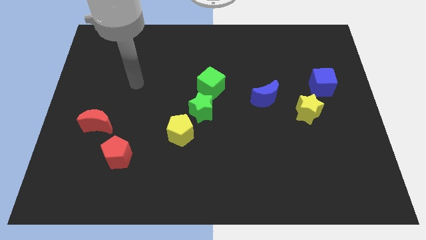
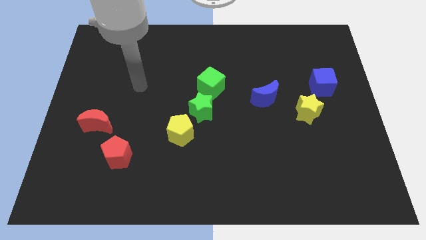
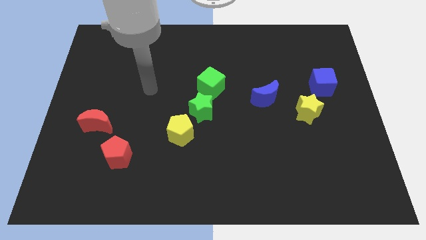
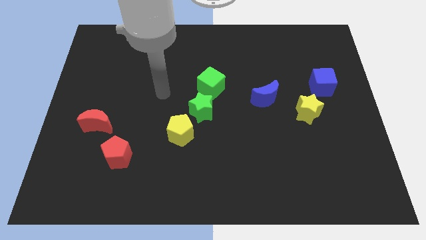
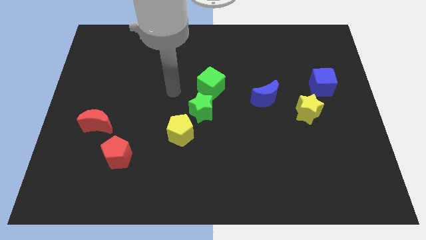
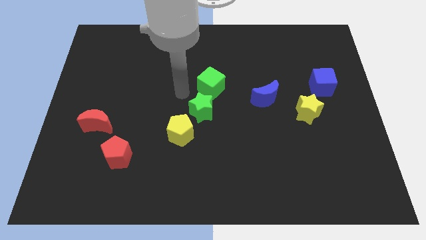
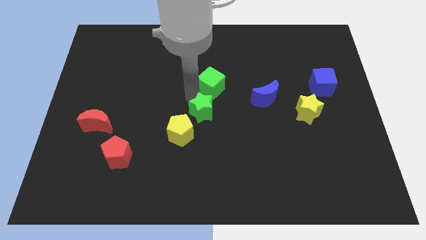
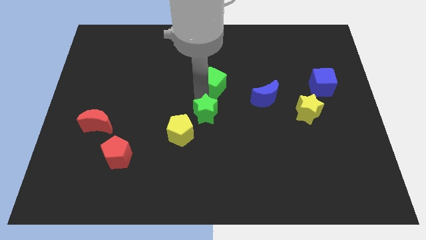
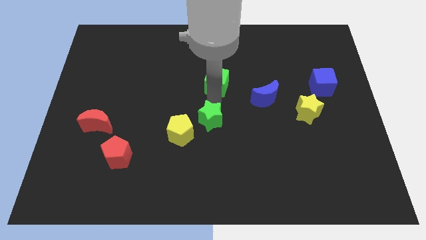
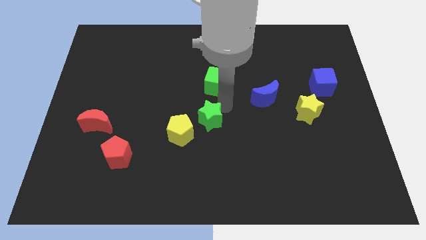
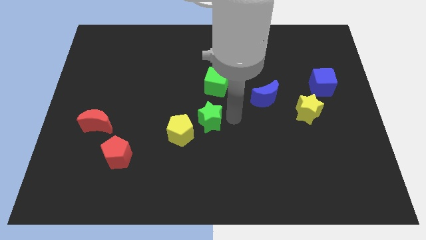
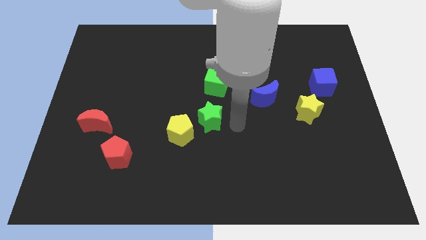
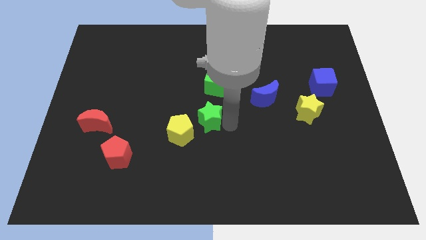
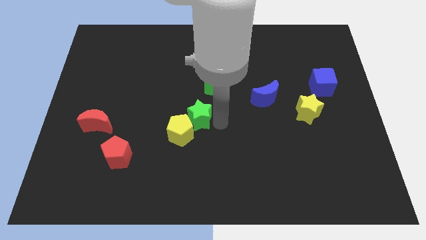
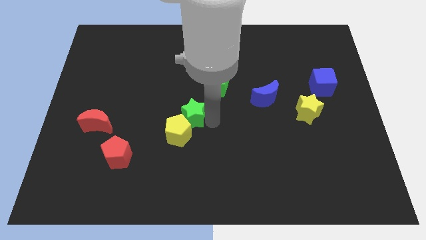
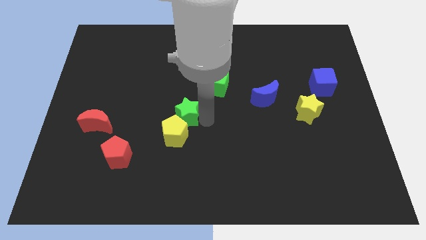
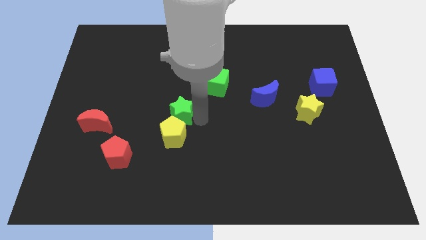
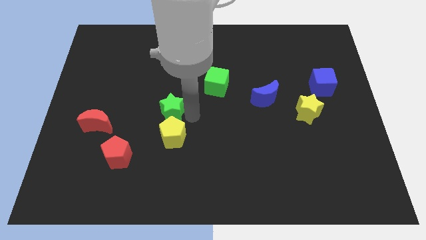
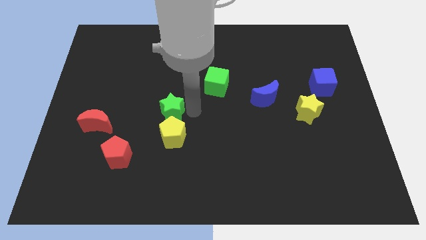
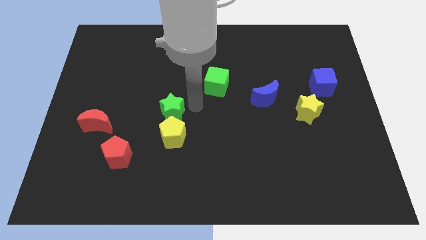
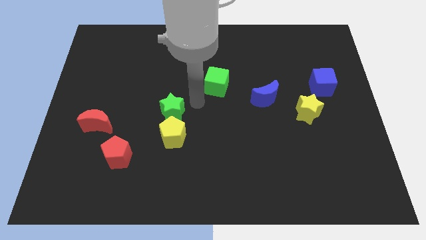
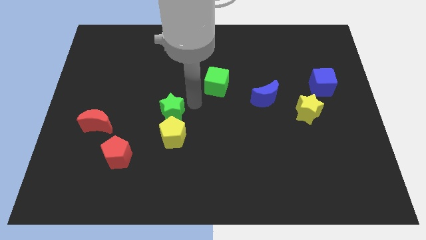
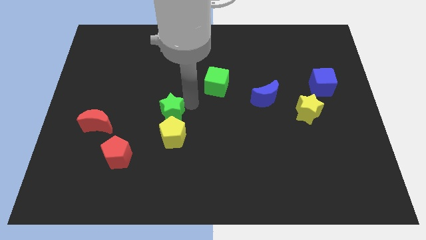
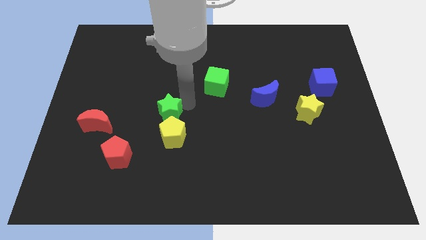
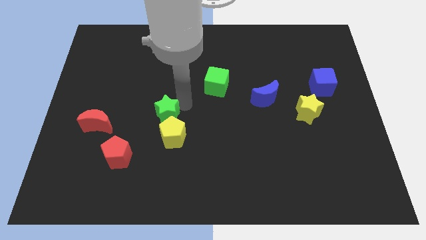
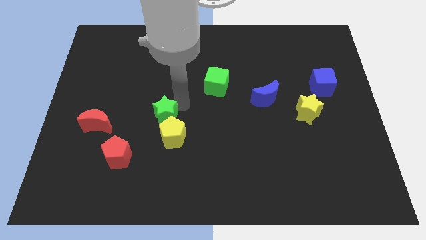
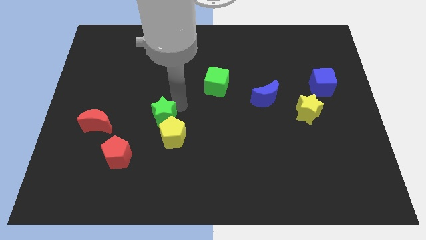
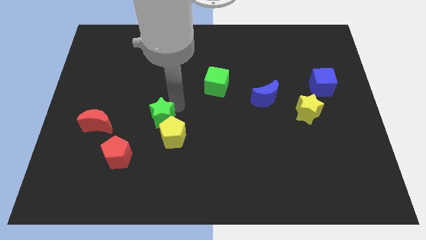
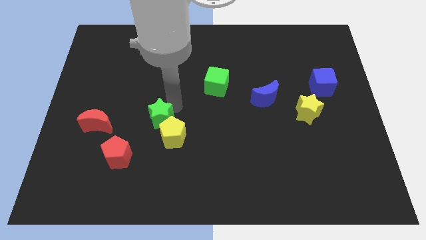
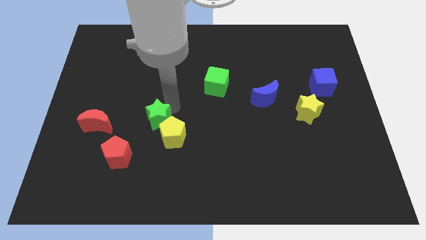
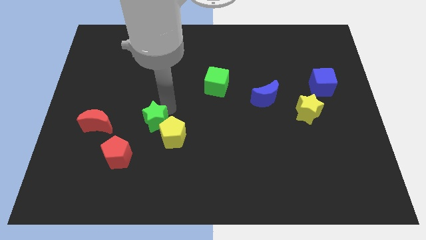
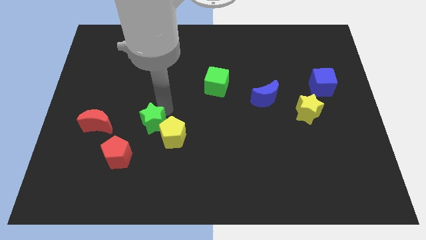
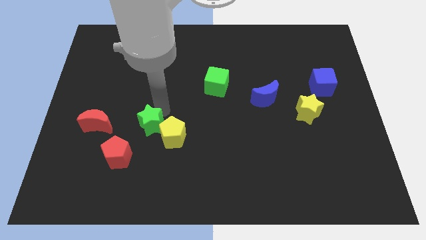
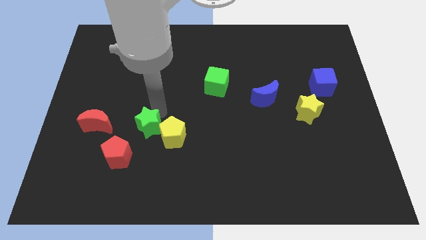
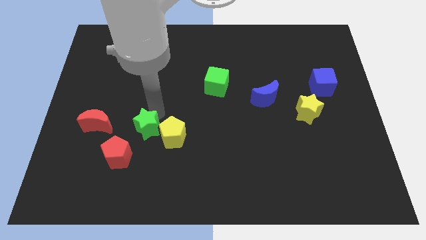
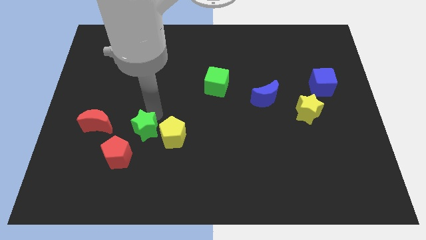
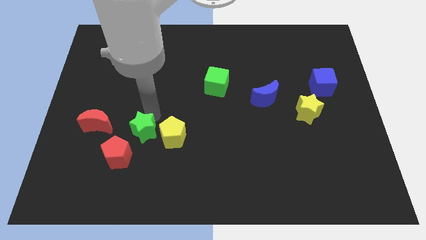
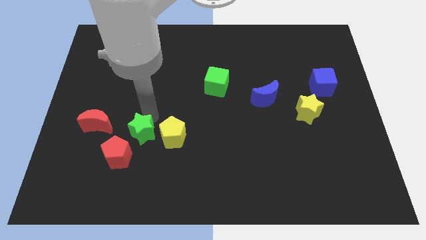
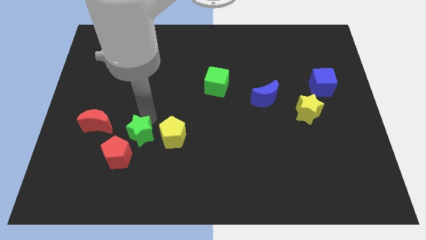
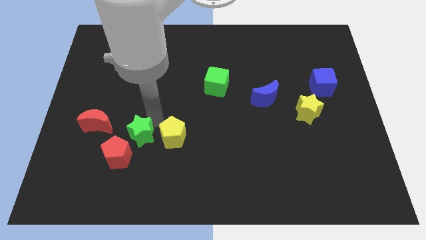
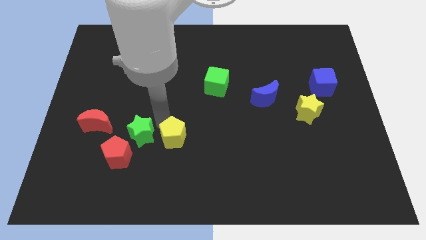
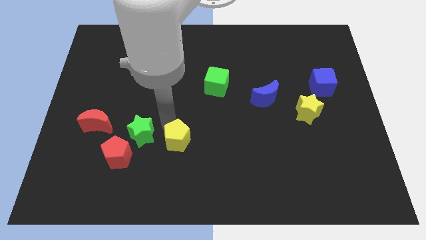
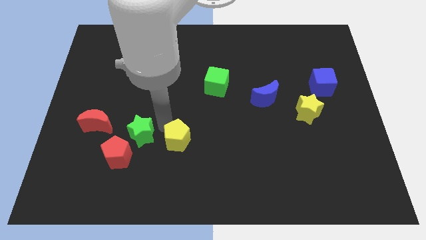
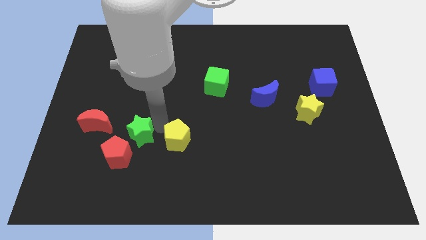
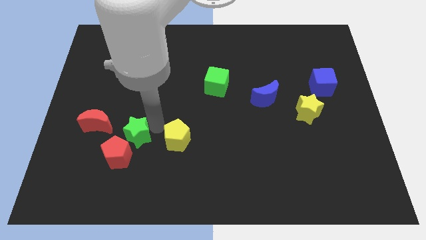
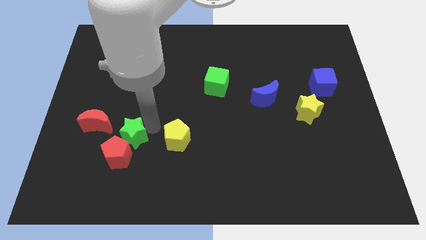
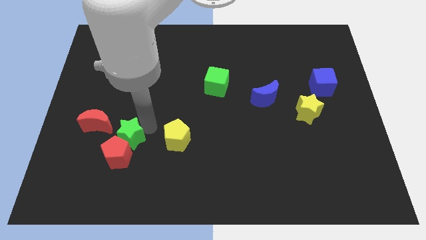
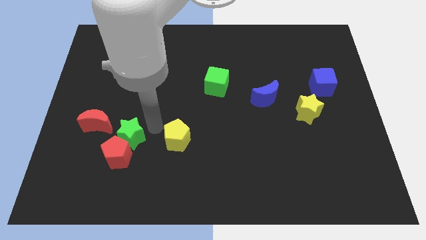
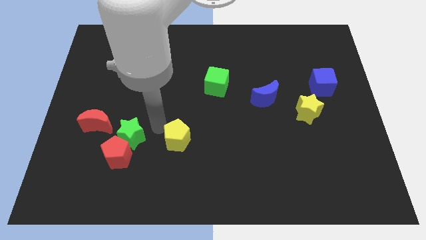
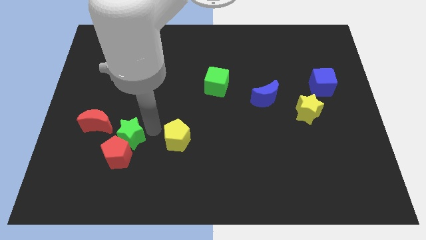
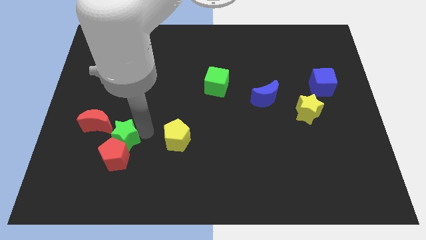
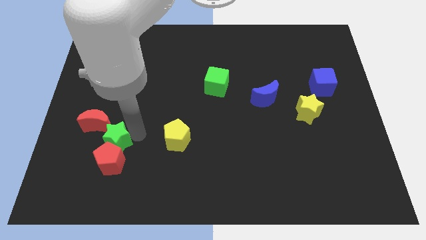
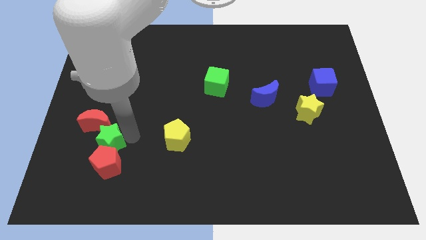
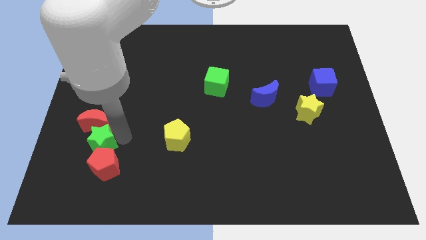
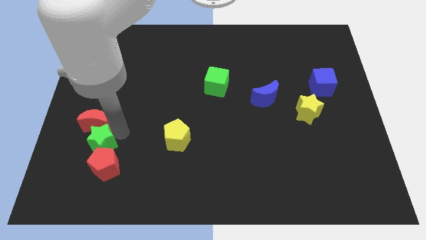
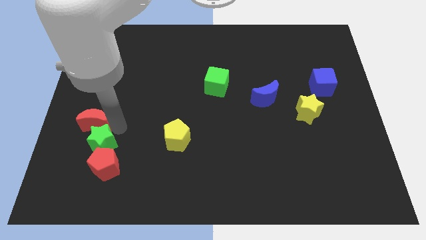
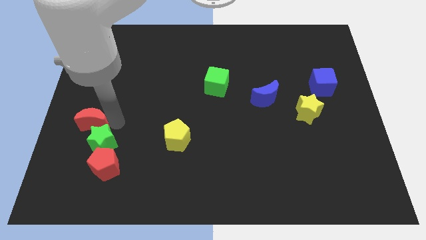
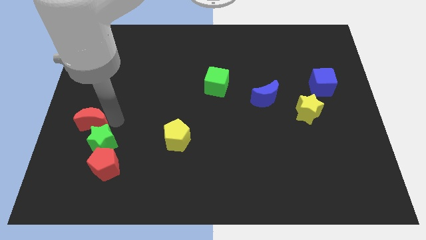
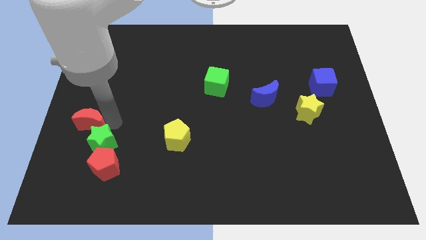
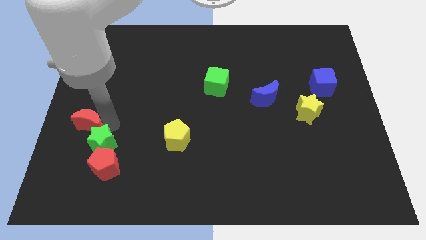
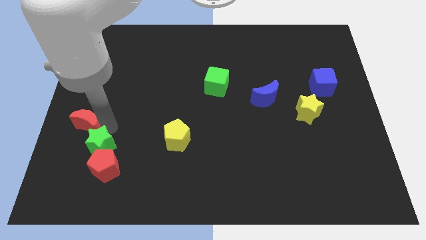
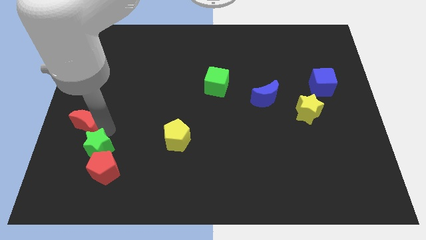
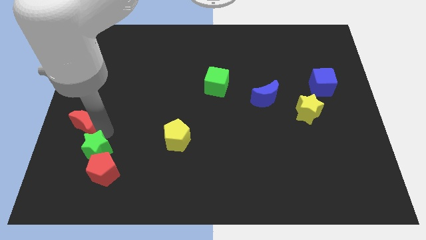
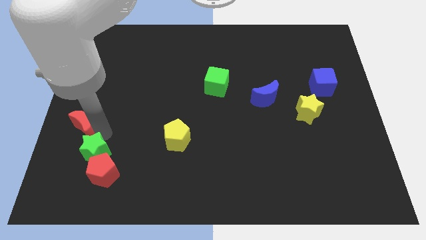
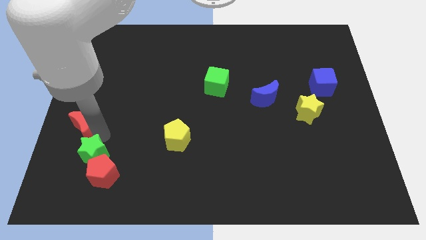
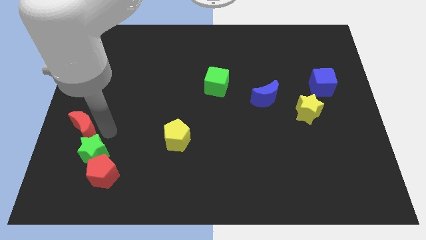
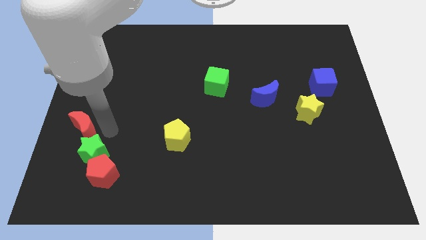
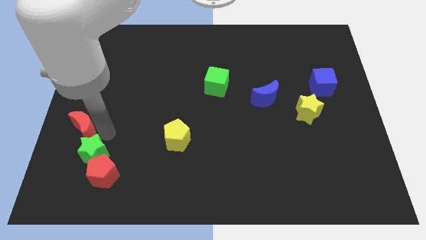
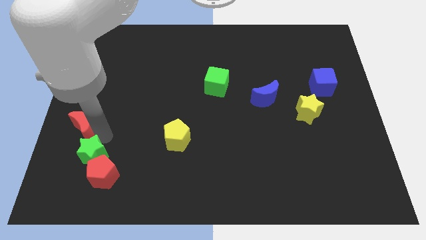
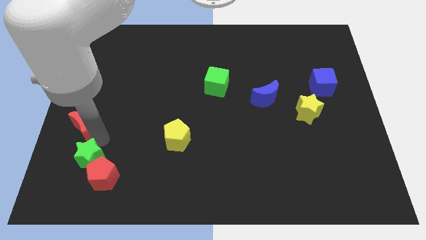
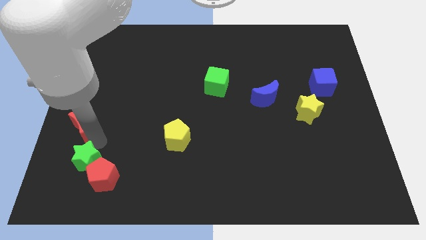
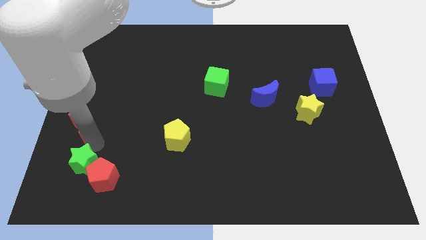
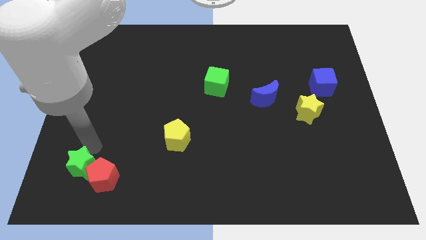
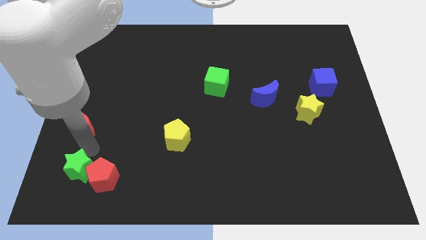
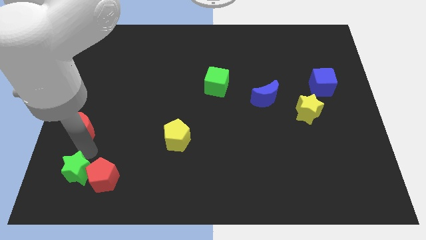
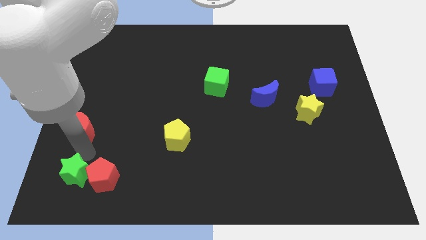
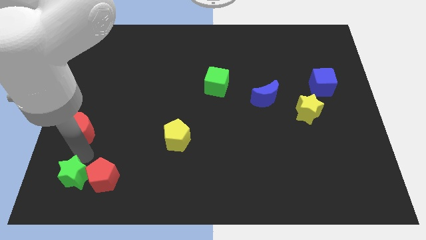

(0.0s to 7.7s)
push the green star to the lower left corner
